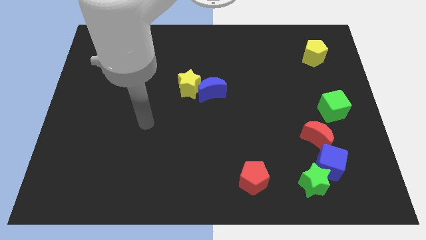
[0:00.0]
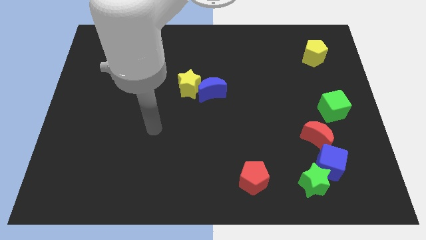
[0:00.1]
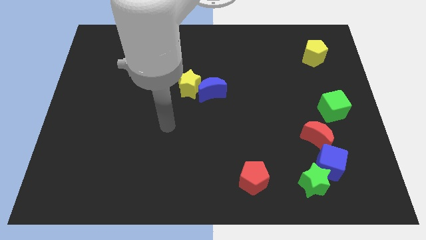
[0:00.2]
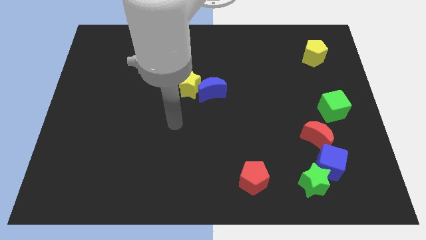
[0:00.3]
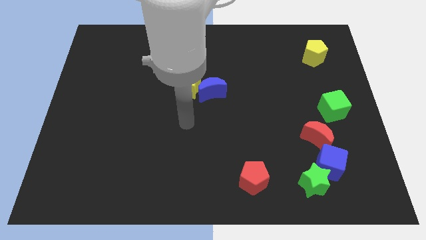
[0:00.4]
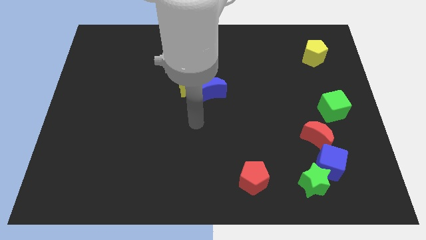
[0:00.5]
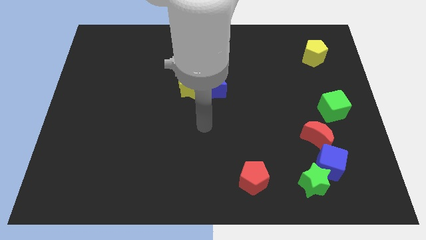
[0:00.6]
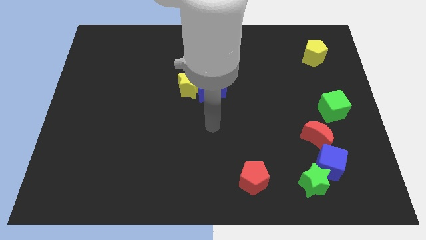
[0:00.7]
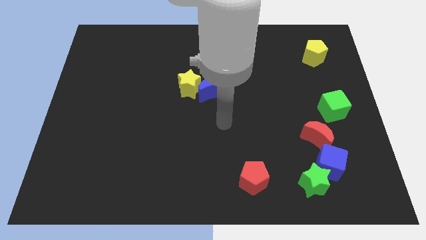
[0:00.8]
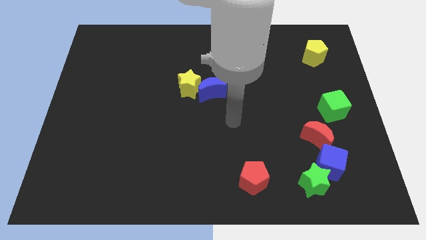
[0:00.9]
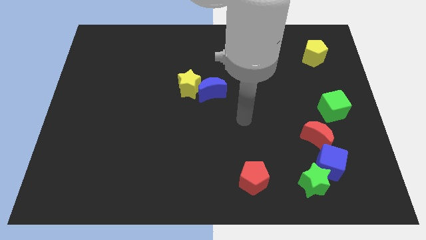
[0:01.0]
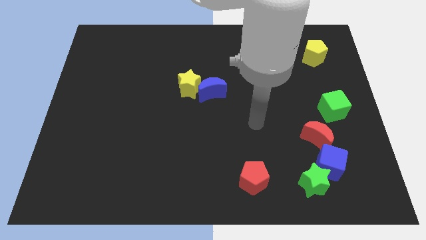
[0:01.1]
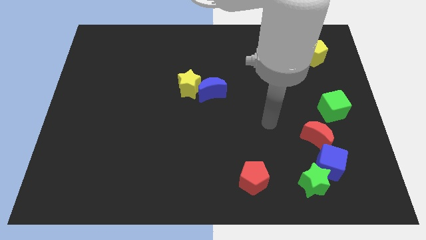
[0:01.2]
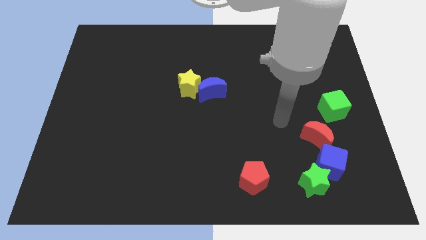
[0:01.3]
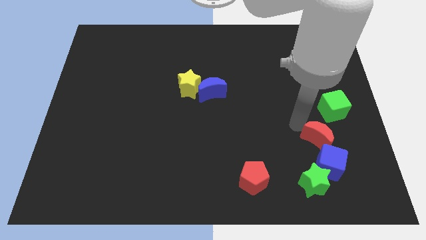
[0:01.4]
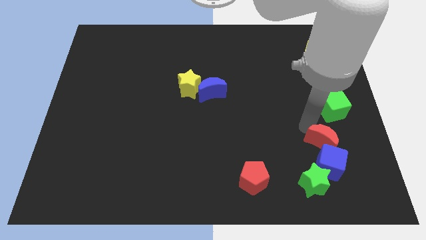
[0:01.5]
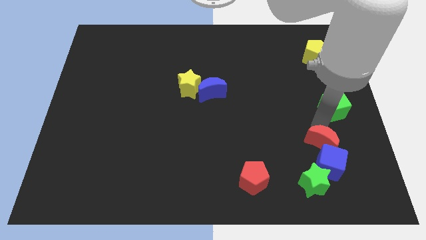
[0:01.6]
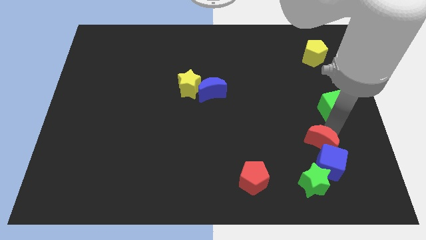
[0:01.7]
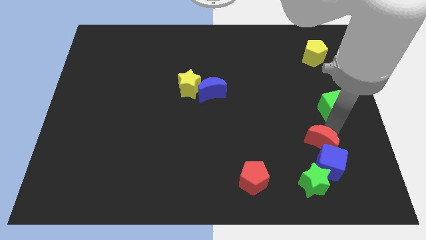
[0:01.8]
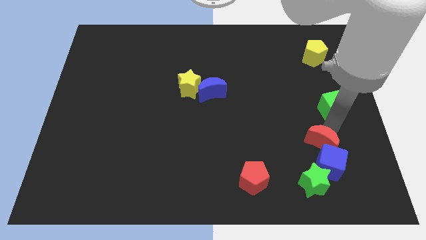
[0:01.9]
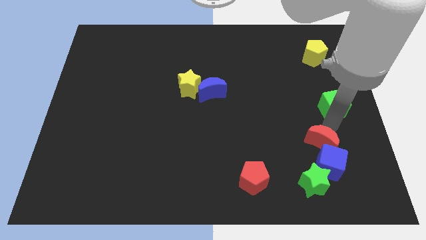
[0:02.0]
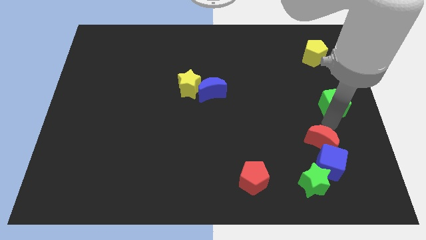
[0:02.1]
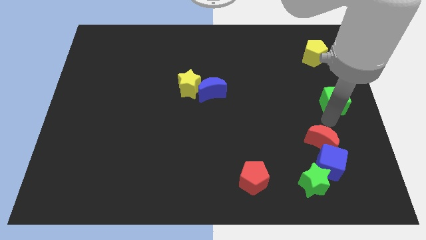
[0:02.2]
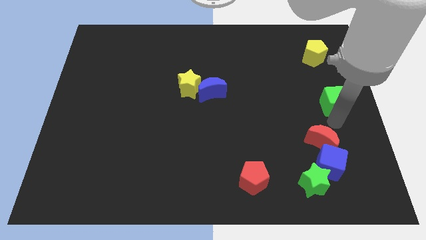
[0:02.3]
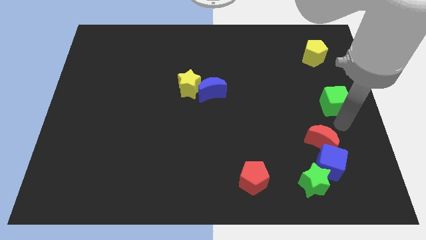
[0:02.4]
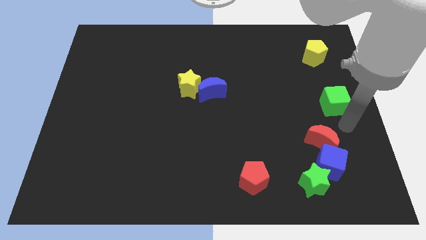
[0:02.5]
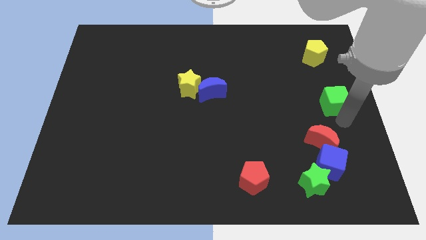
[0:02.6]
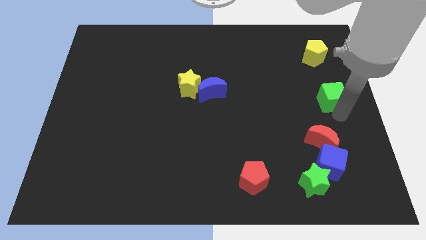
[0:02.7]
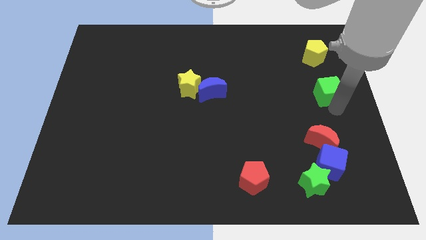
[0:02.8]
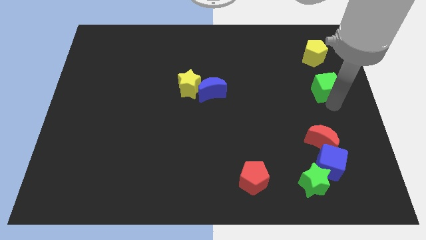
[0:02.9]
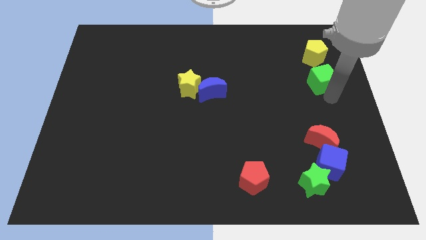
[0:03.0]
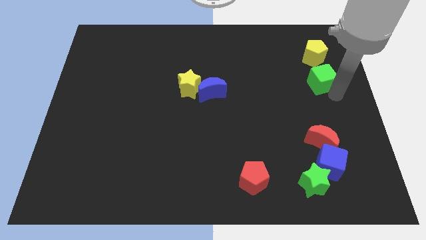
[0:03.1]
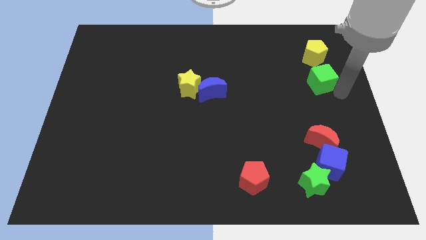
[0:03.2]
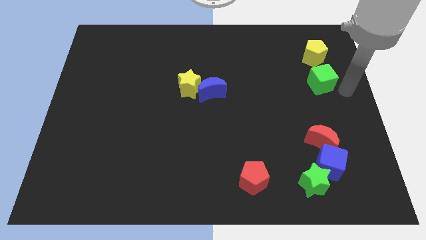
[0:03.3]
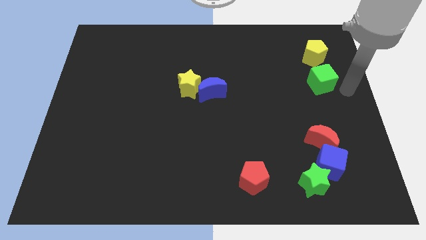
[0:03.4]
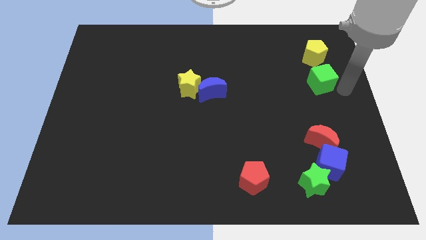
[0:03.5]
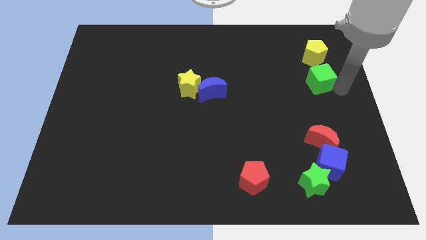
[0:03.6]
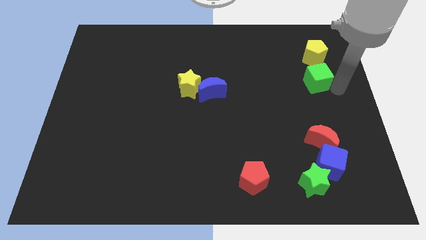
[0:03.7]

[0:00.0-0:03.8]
move the green cube upwards and then left slightly

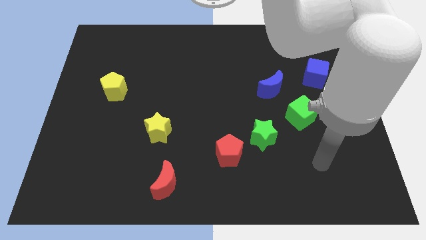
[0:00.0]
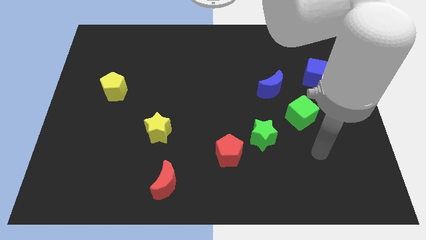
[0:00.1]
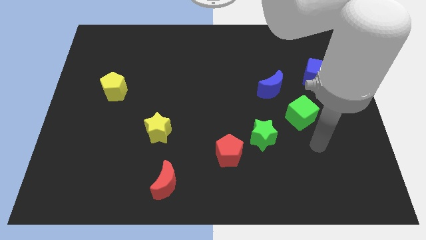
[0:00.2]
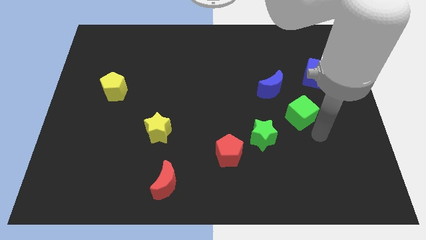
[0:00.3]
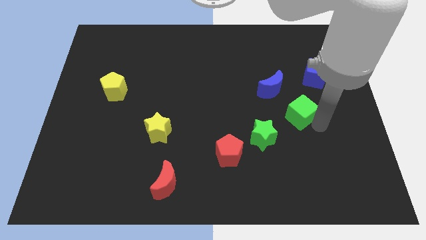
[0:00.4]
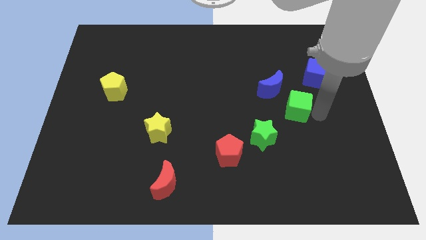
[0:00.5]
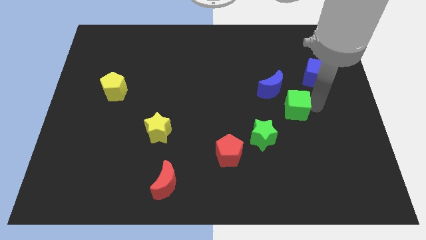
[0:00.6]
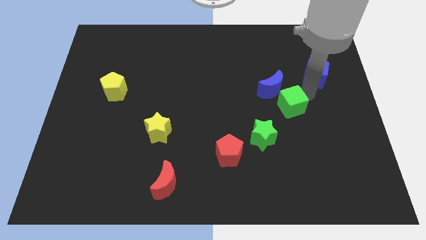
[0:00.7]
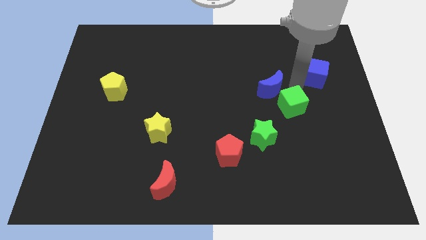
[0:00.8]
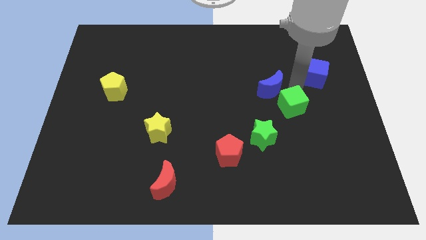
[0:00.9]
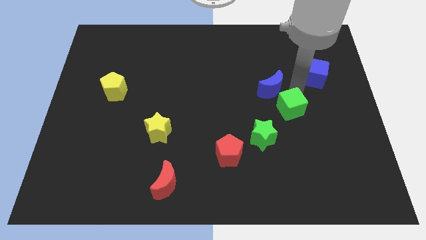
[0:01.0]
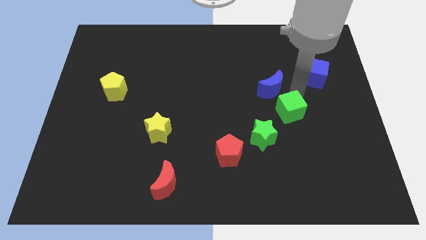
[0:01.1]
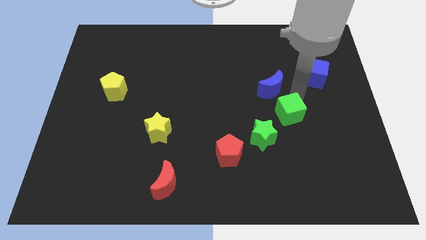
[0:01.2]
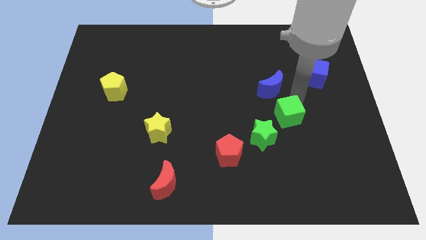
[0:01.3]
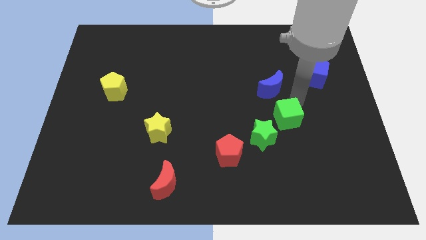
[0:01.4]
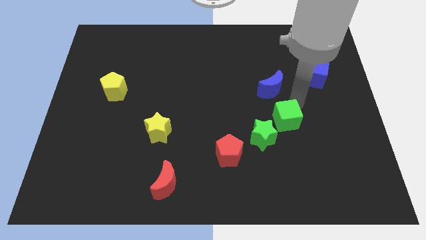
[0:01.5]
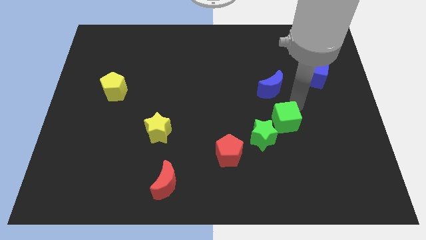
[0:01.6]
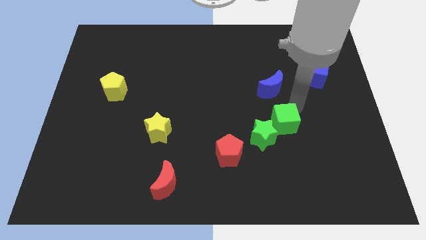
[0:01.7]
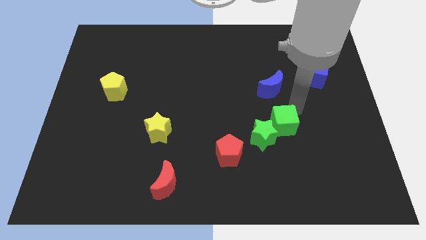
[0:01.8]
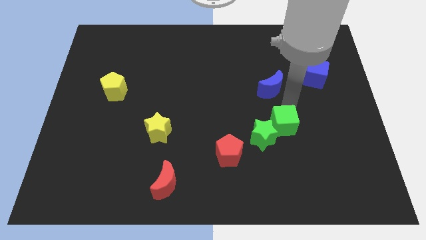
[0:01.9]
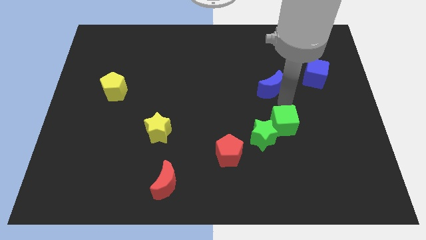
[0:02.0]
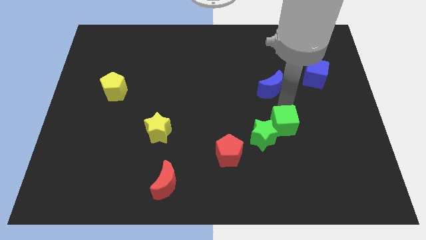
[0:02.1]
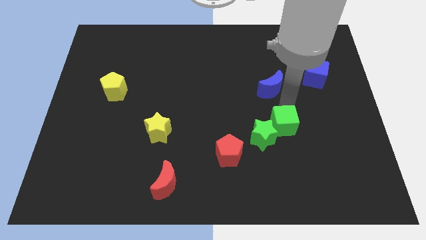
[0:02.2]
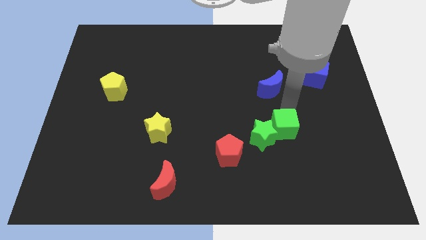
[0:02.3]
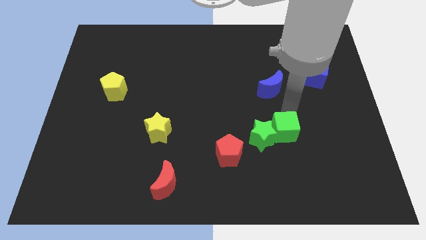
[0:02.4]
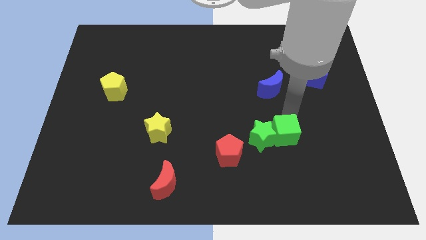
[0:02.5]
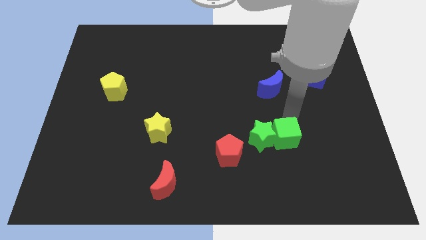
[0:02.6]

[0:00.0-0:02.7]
slightly push the green cube down and then left

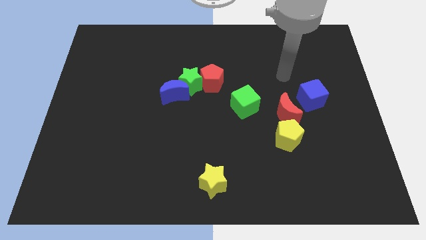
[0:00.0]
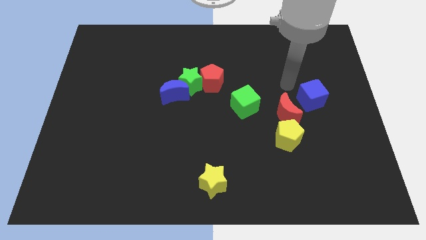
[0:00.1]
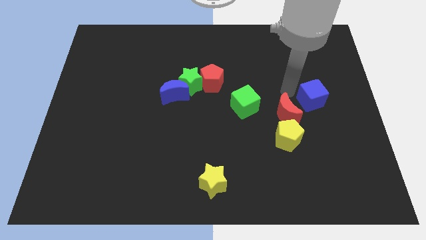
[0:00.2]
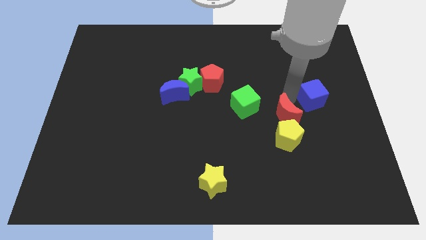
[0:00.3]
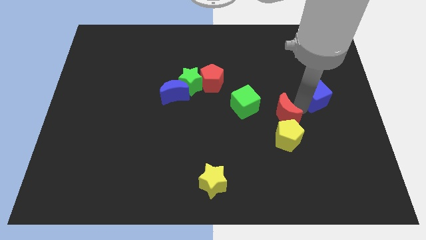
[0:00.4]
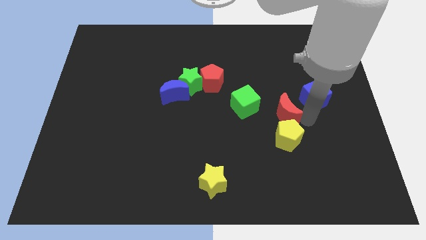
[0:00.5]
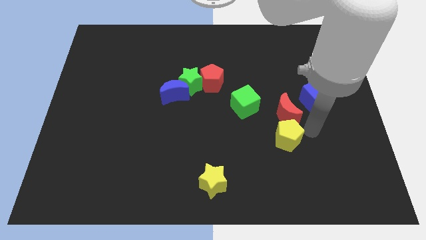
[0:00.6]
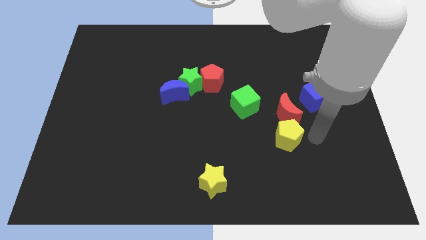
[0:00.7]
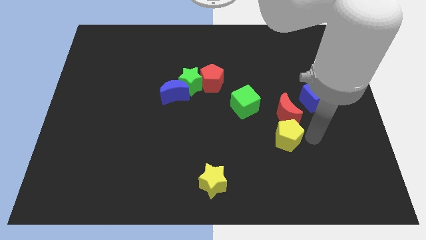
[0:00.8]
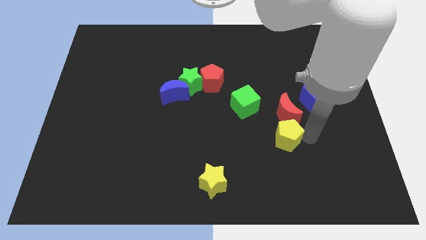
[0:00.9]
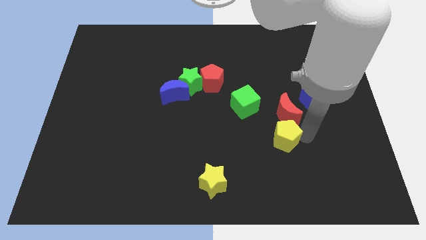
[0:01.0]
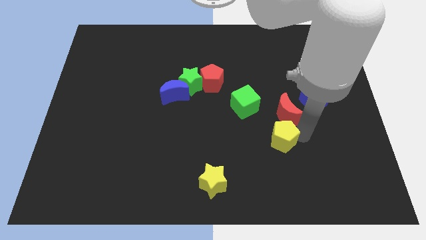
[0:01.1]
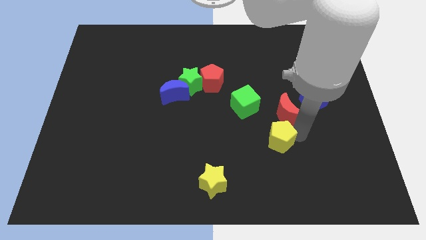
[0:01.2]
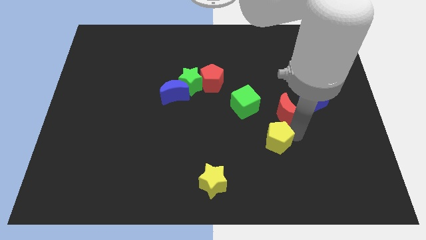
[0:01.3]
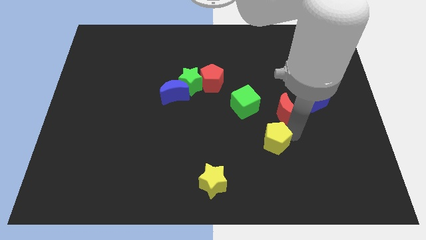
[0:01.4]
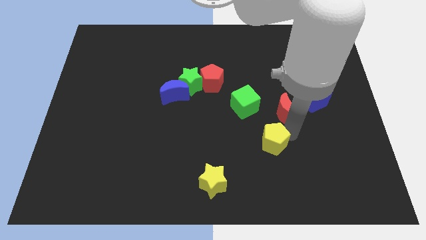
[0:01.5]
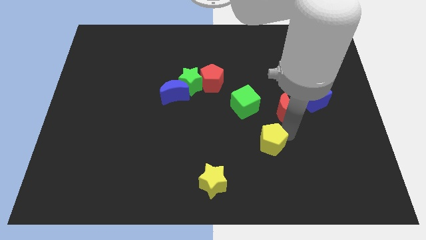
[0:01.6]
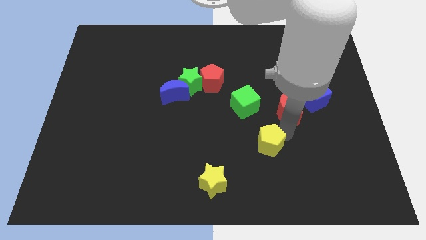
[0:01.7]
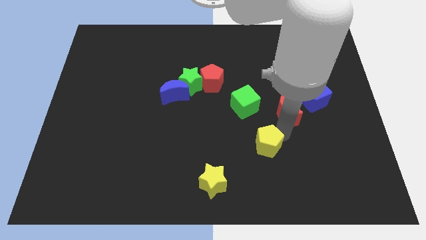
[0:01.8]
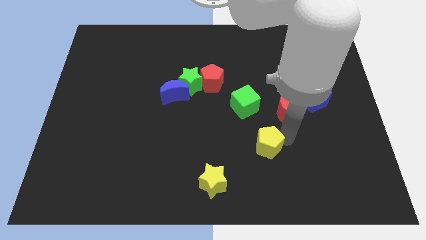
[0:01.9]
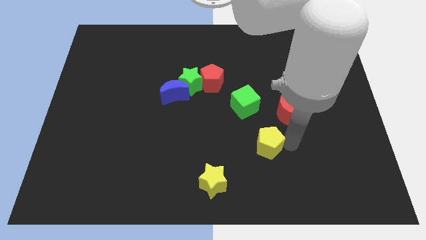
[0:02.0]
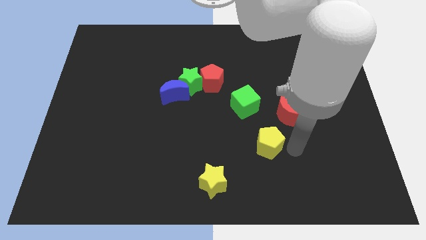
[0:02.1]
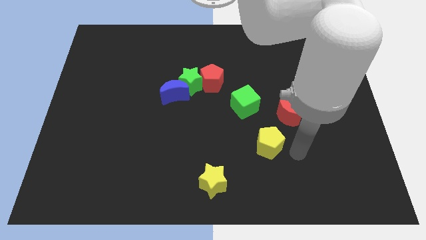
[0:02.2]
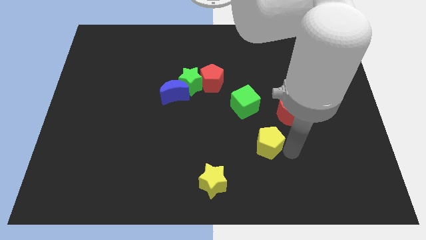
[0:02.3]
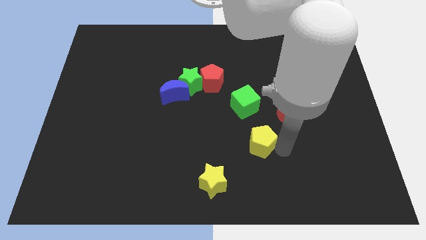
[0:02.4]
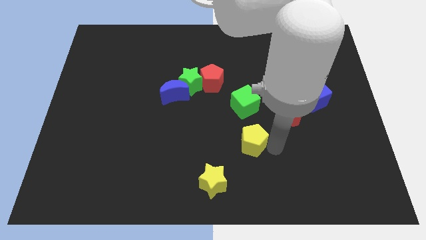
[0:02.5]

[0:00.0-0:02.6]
slightly move the yellow pentagon left
